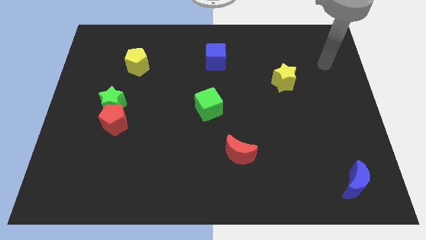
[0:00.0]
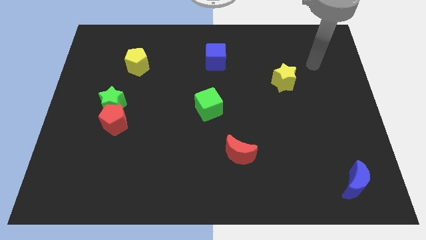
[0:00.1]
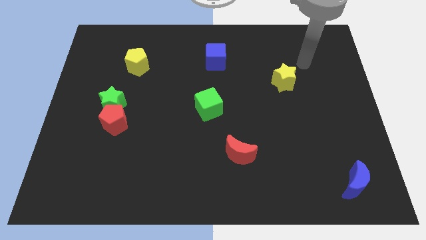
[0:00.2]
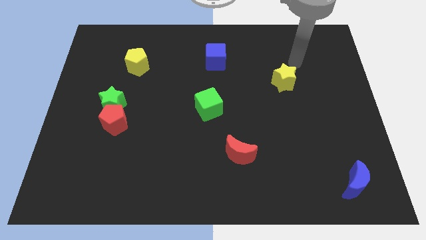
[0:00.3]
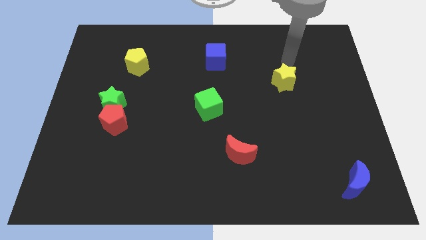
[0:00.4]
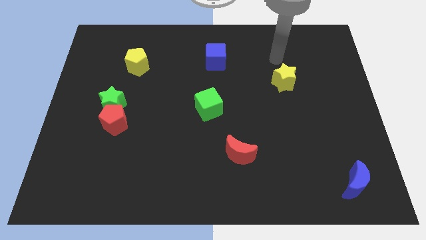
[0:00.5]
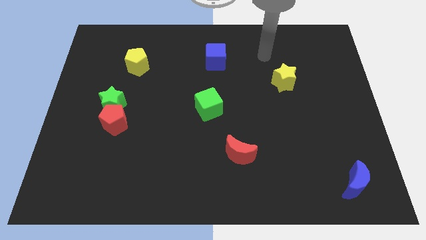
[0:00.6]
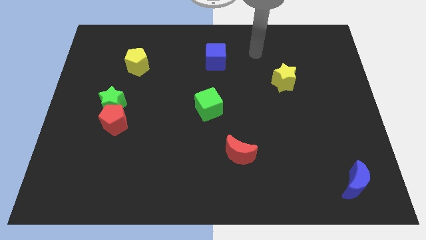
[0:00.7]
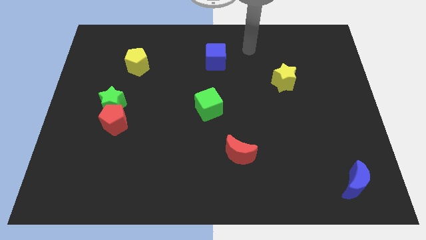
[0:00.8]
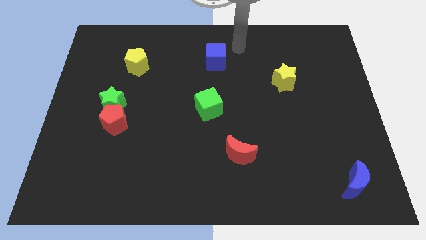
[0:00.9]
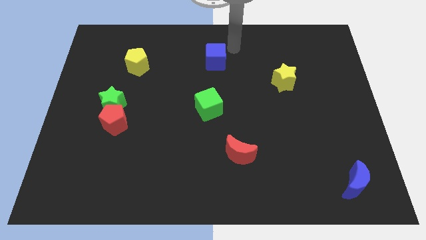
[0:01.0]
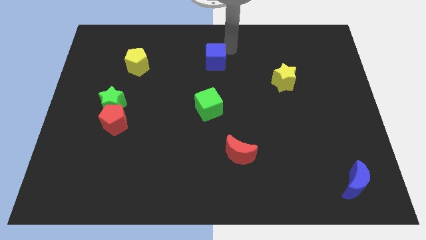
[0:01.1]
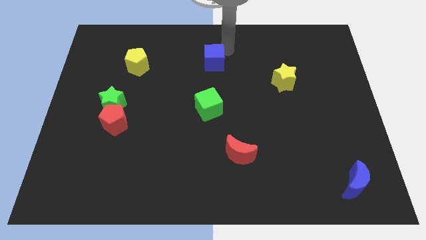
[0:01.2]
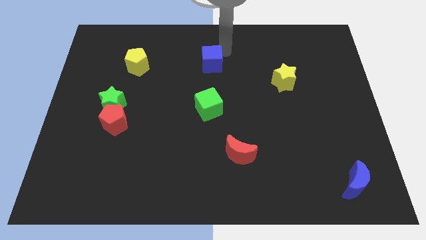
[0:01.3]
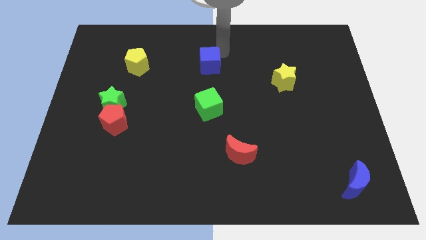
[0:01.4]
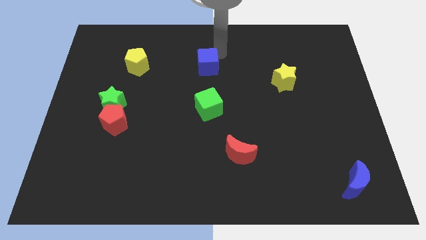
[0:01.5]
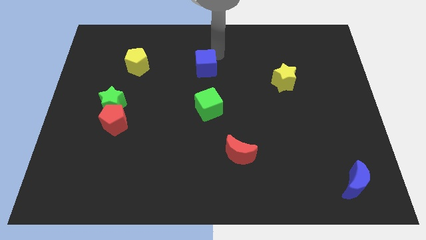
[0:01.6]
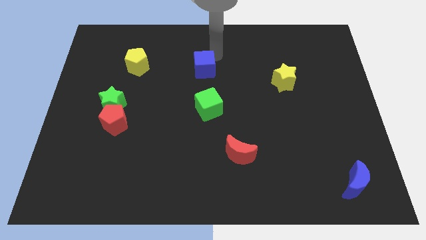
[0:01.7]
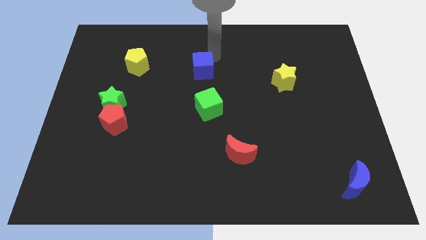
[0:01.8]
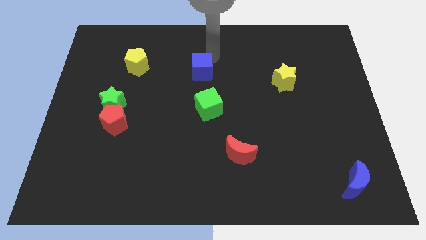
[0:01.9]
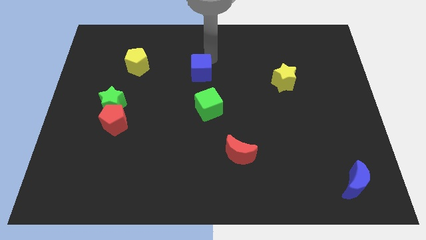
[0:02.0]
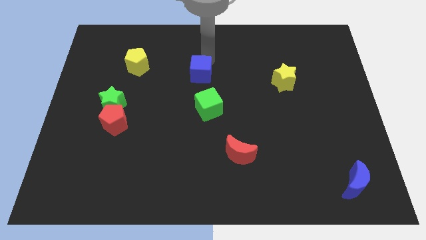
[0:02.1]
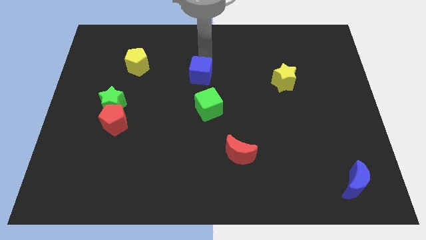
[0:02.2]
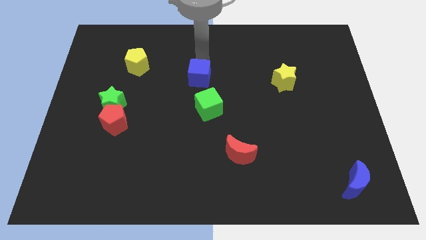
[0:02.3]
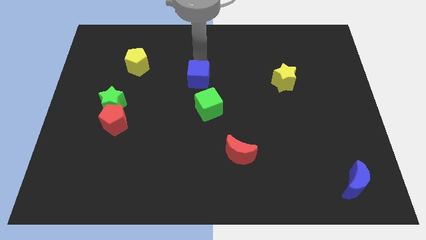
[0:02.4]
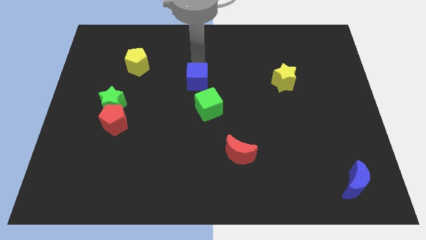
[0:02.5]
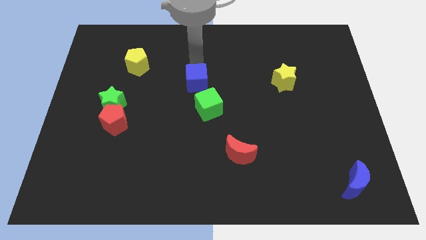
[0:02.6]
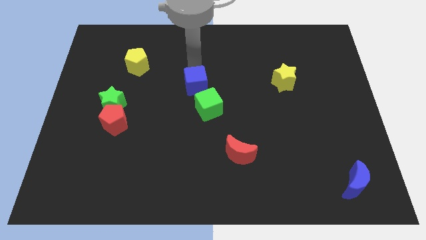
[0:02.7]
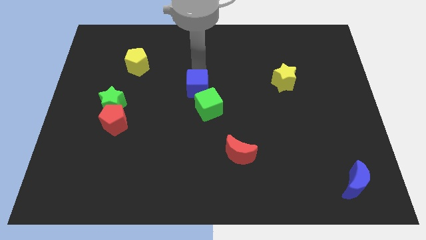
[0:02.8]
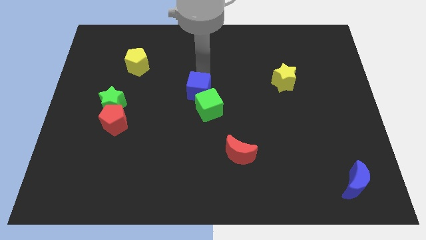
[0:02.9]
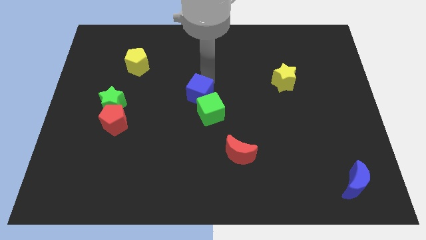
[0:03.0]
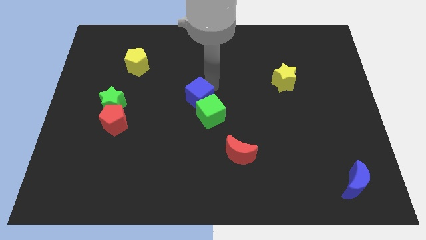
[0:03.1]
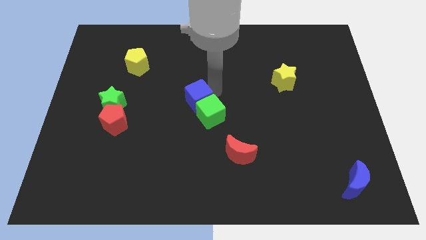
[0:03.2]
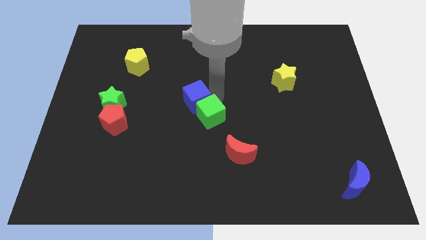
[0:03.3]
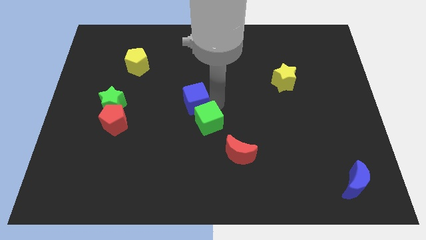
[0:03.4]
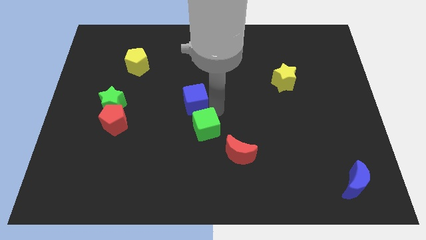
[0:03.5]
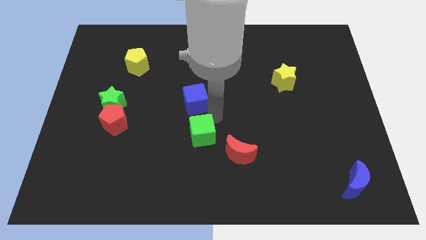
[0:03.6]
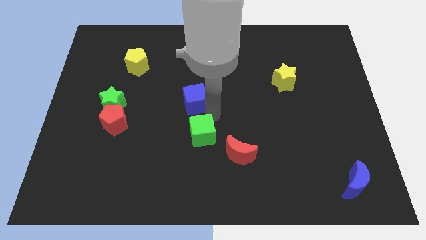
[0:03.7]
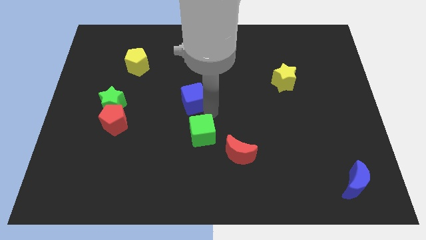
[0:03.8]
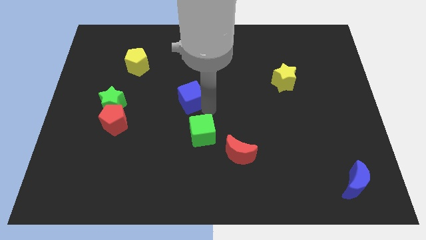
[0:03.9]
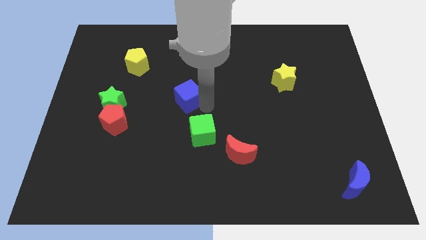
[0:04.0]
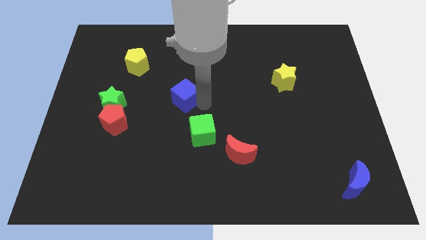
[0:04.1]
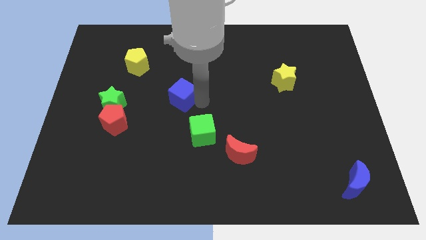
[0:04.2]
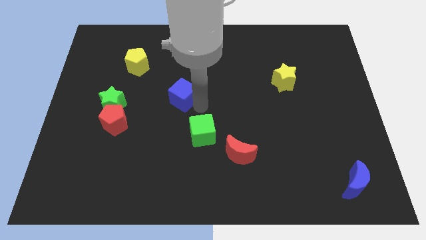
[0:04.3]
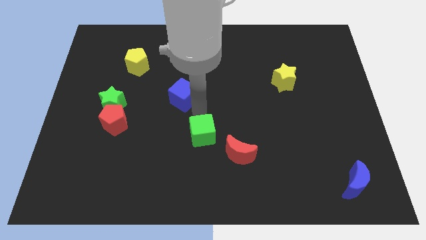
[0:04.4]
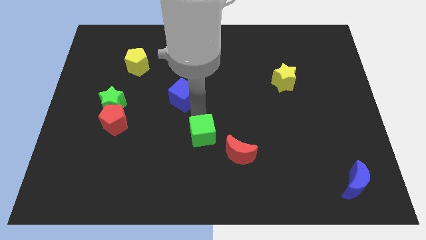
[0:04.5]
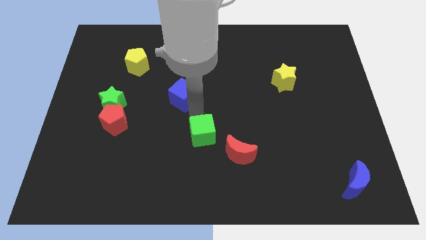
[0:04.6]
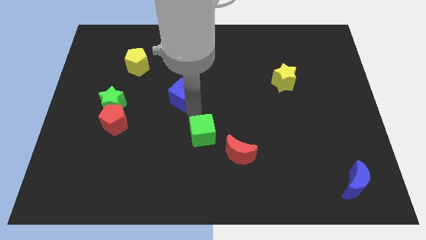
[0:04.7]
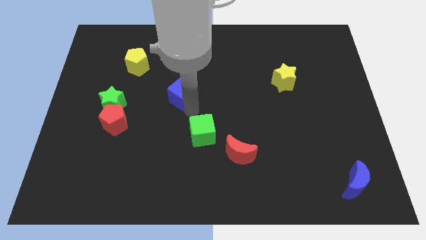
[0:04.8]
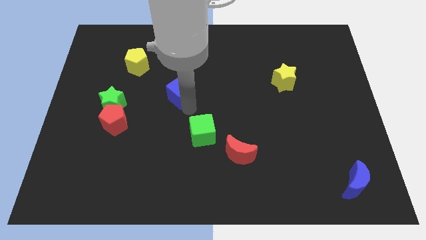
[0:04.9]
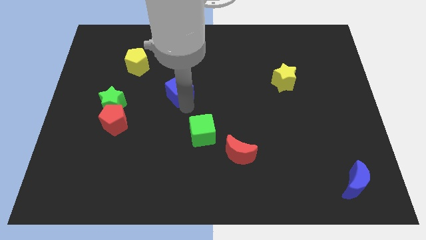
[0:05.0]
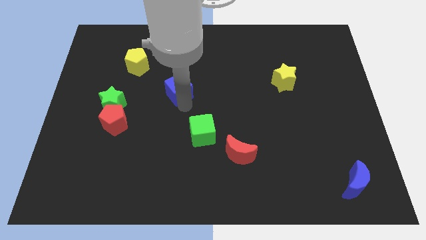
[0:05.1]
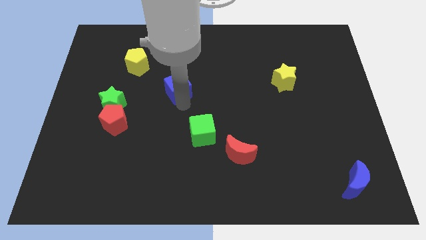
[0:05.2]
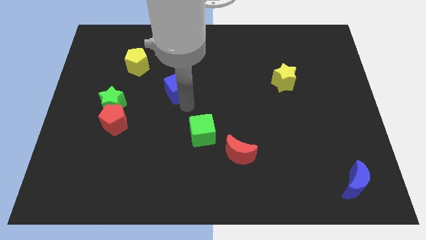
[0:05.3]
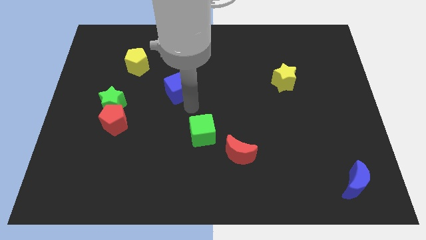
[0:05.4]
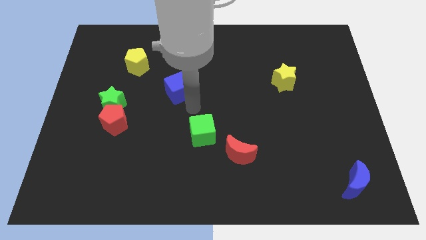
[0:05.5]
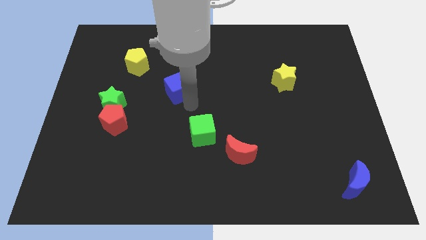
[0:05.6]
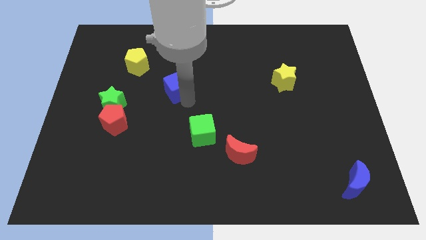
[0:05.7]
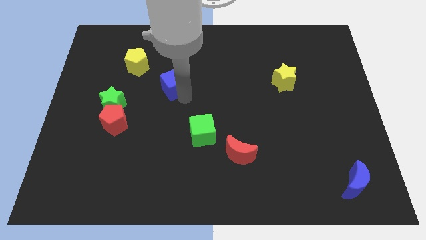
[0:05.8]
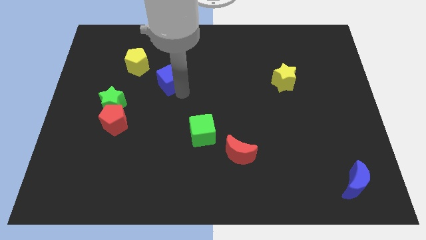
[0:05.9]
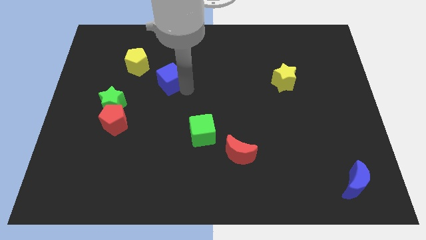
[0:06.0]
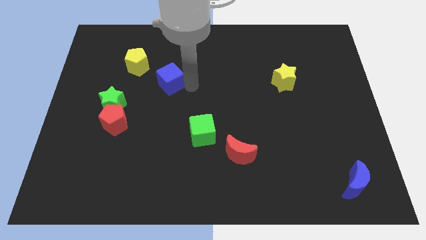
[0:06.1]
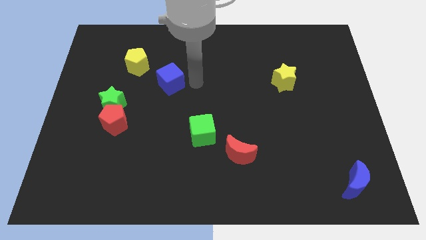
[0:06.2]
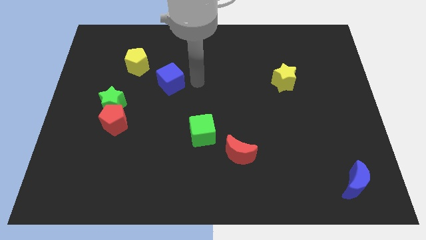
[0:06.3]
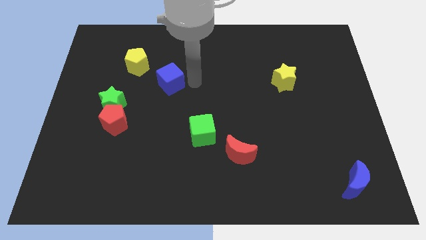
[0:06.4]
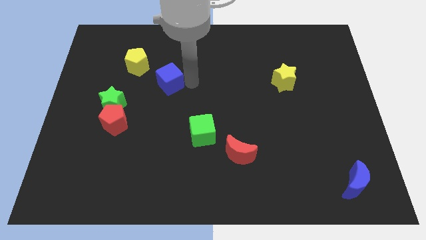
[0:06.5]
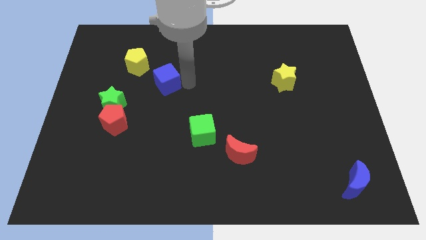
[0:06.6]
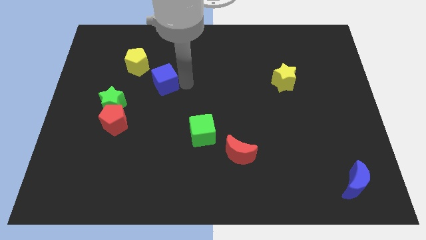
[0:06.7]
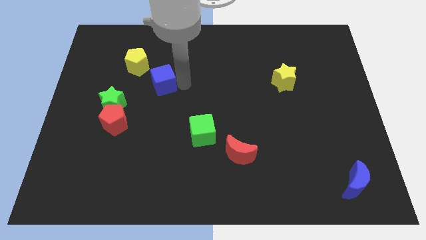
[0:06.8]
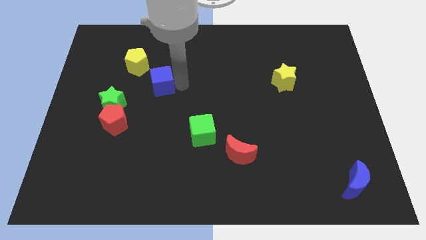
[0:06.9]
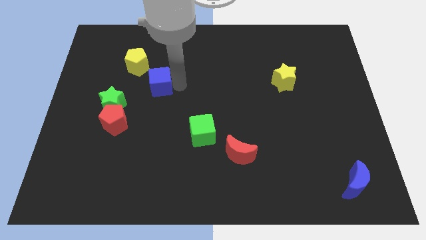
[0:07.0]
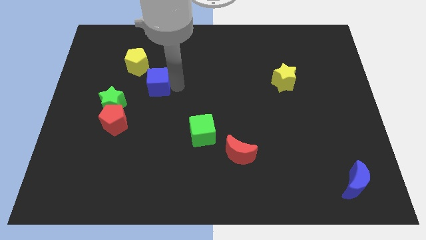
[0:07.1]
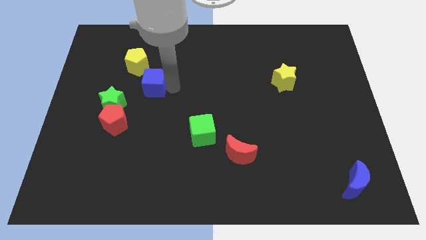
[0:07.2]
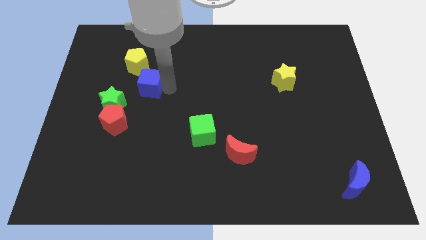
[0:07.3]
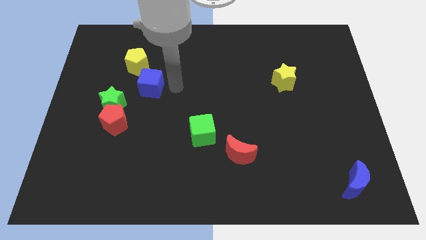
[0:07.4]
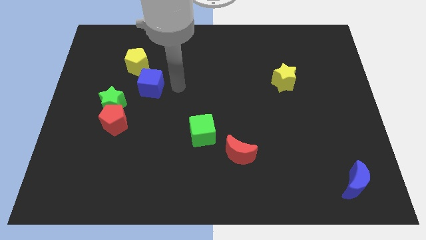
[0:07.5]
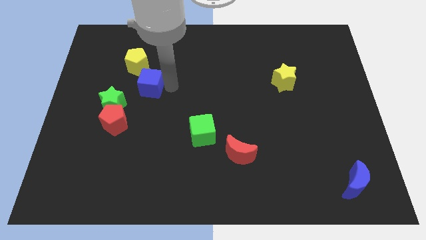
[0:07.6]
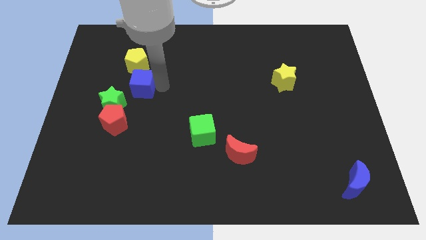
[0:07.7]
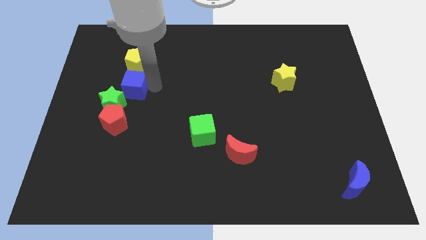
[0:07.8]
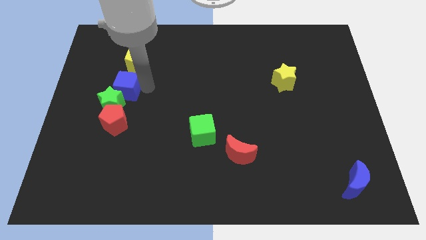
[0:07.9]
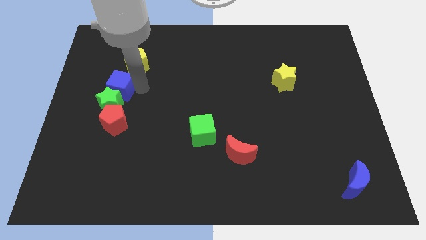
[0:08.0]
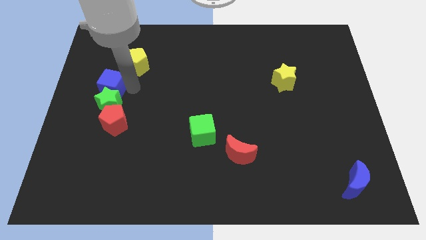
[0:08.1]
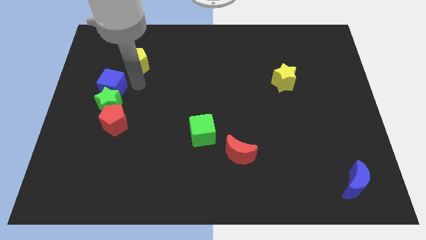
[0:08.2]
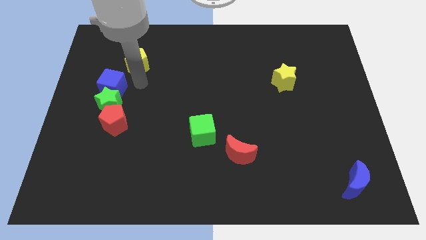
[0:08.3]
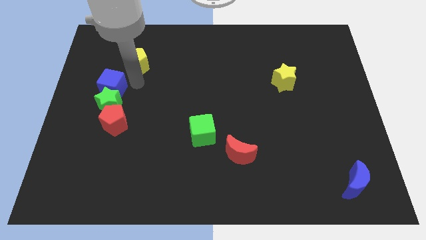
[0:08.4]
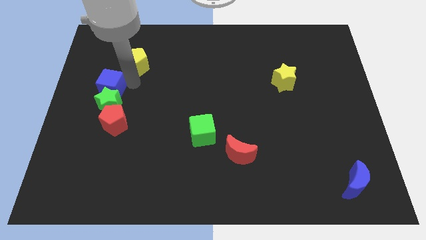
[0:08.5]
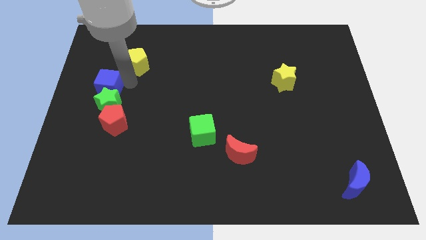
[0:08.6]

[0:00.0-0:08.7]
push the blue cube to the center left
